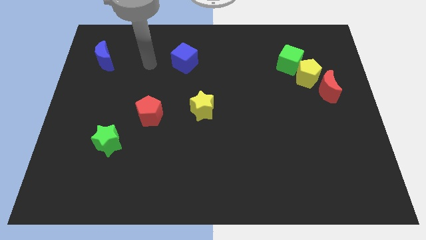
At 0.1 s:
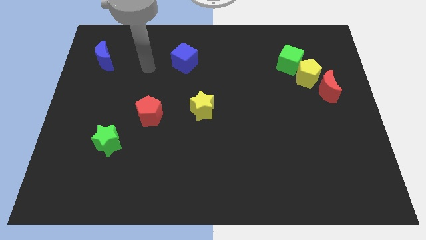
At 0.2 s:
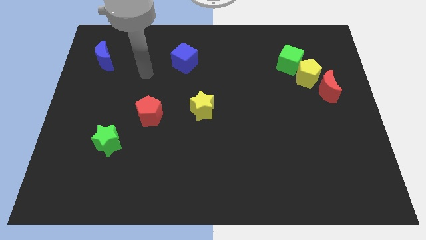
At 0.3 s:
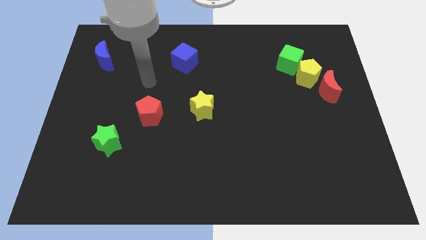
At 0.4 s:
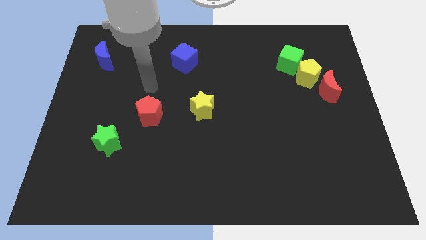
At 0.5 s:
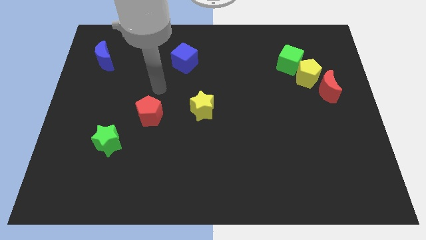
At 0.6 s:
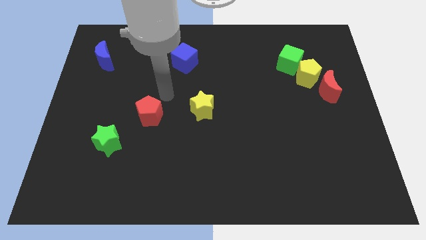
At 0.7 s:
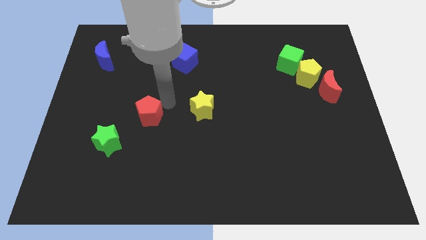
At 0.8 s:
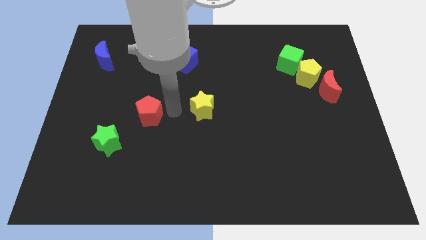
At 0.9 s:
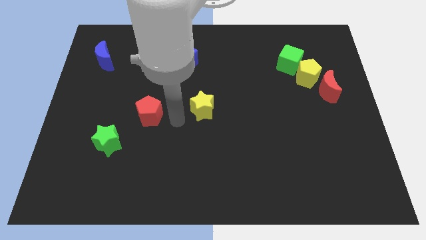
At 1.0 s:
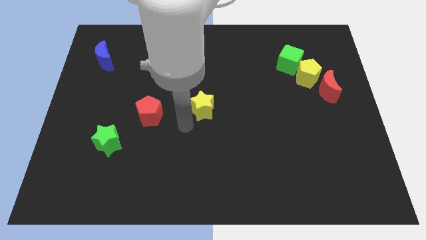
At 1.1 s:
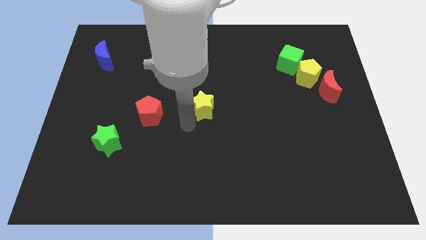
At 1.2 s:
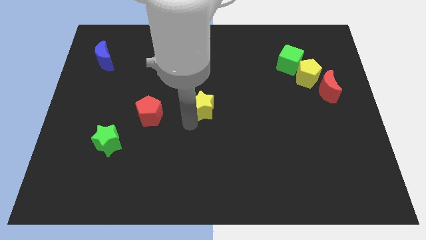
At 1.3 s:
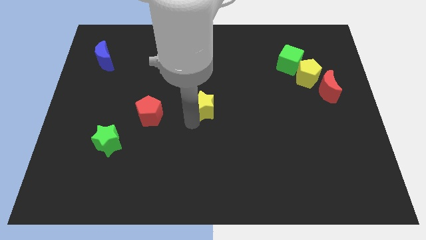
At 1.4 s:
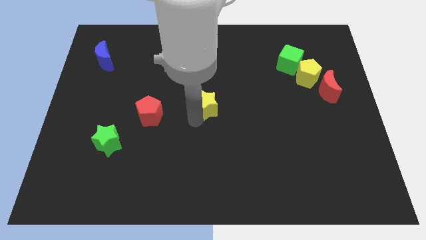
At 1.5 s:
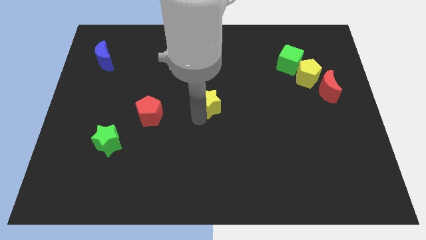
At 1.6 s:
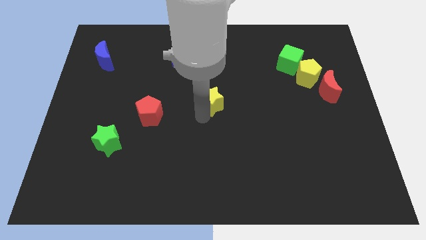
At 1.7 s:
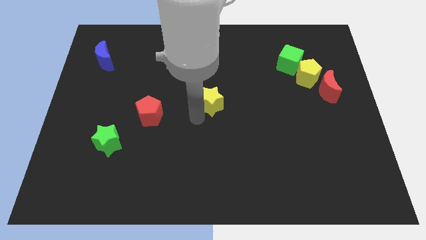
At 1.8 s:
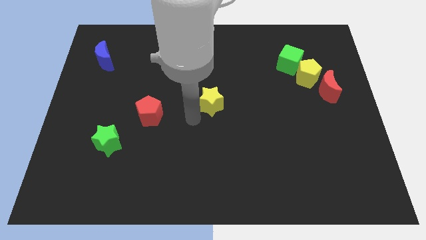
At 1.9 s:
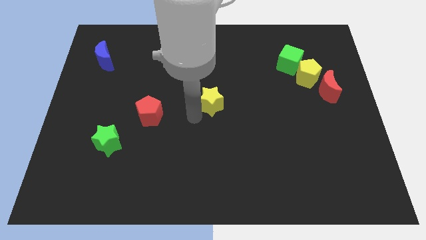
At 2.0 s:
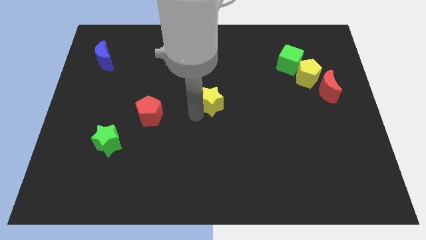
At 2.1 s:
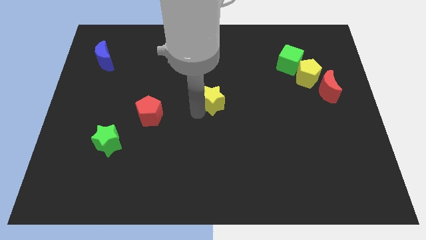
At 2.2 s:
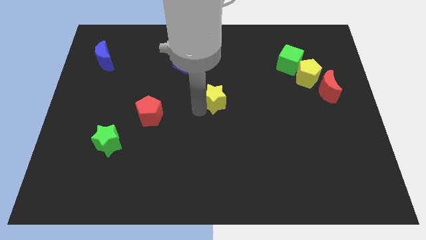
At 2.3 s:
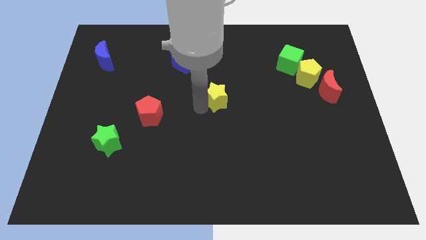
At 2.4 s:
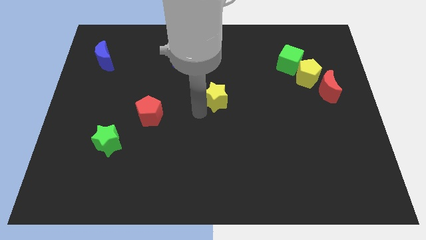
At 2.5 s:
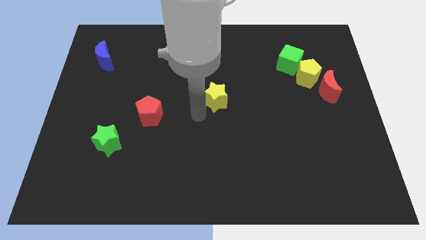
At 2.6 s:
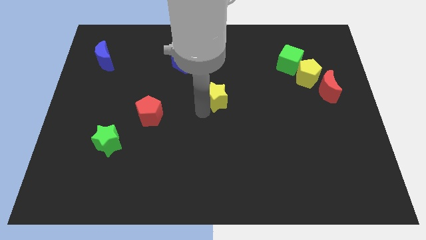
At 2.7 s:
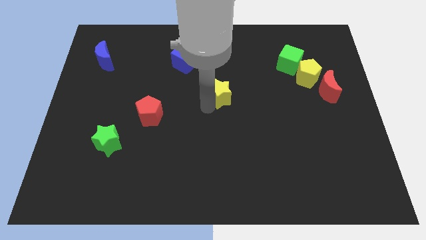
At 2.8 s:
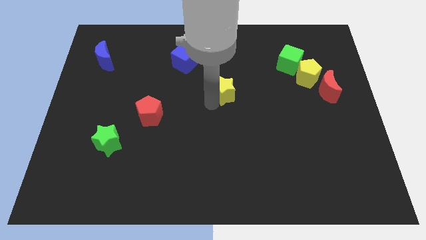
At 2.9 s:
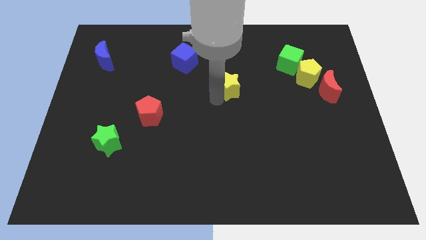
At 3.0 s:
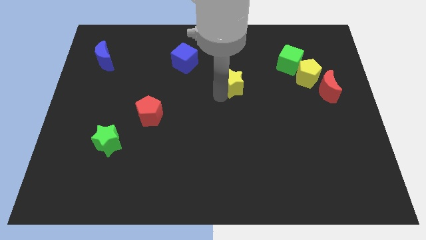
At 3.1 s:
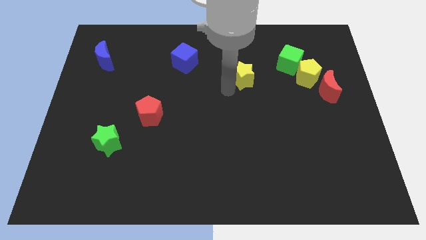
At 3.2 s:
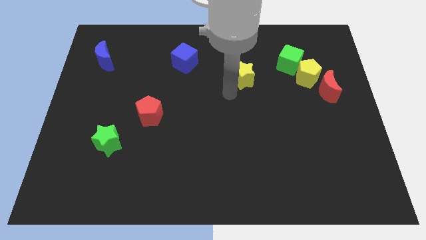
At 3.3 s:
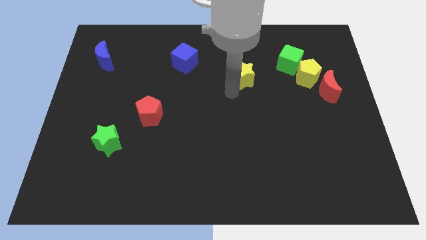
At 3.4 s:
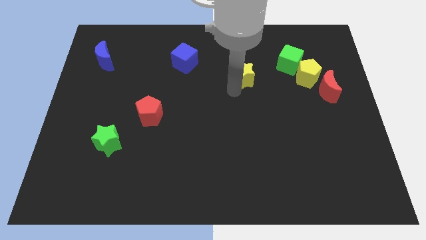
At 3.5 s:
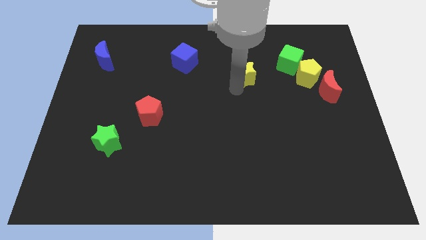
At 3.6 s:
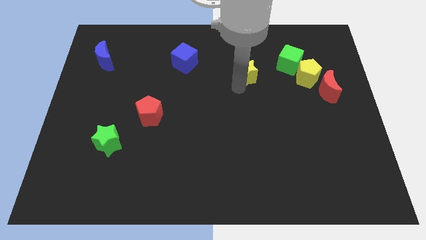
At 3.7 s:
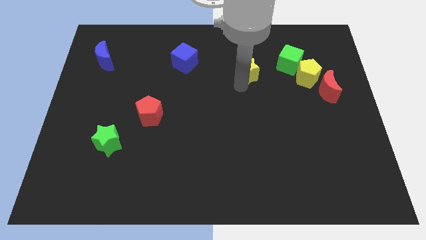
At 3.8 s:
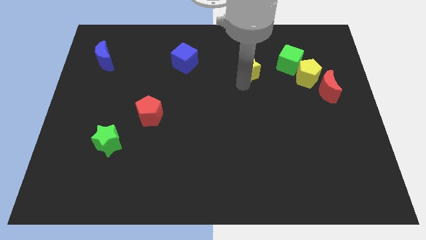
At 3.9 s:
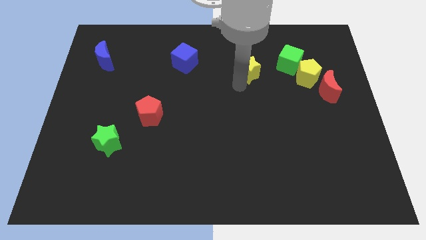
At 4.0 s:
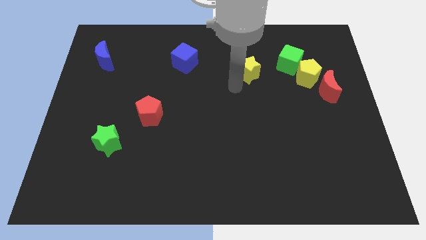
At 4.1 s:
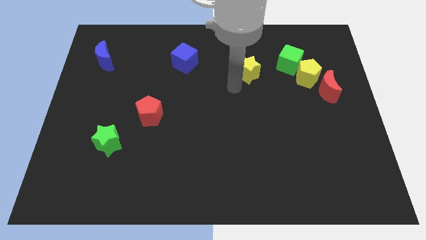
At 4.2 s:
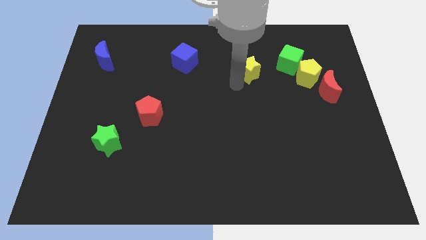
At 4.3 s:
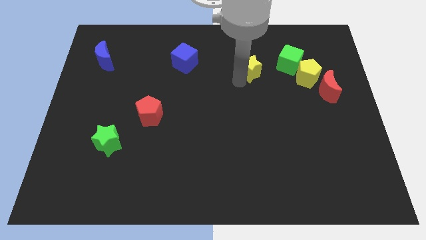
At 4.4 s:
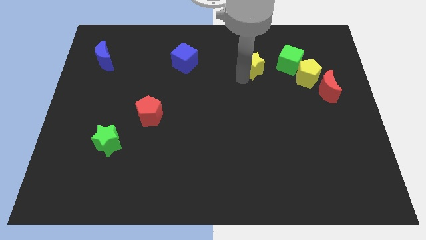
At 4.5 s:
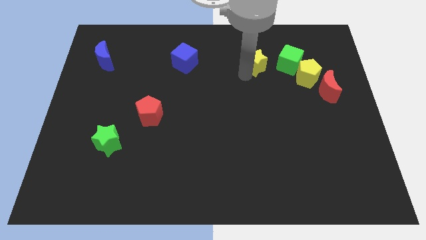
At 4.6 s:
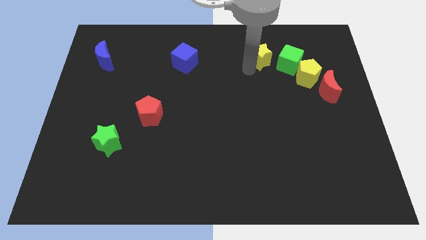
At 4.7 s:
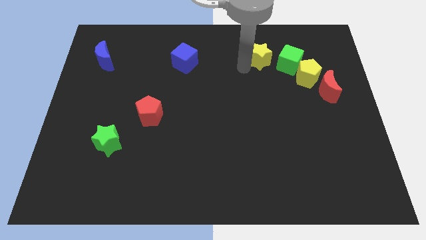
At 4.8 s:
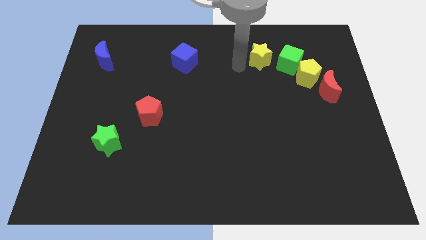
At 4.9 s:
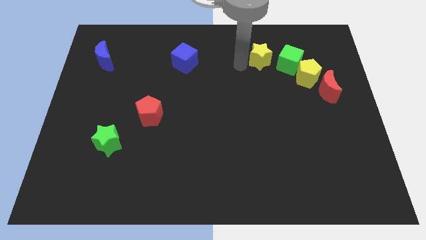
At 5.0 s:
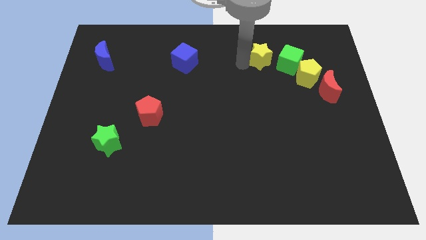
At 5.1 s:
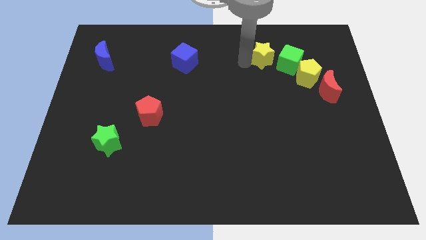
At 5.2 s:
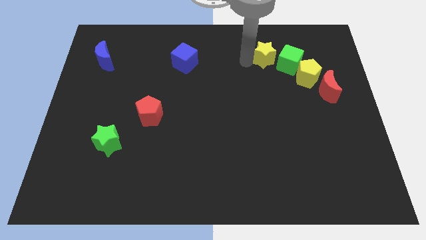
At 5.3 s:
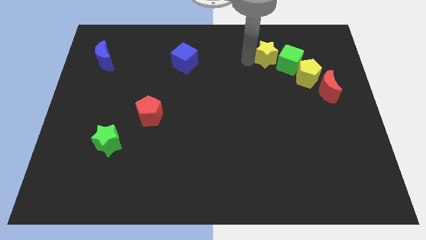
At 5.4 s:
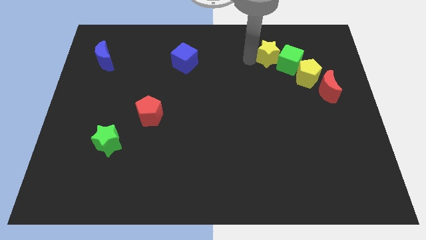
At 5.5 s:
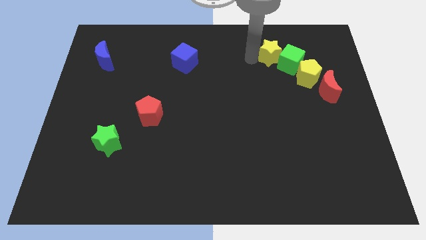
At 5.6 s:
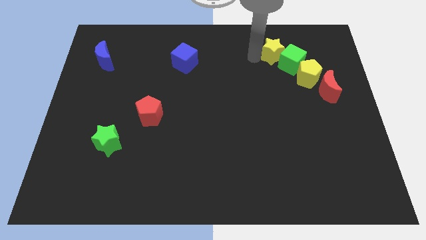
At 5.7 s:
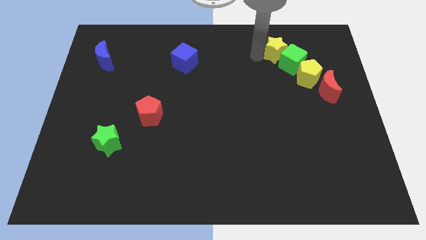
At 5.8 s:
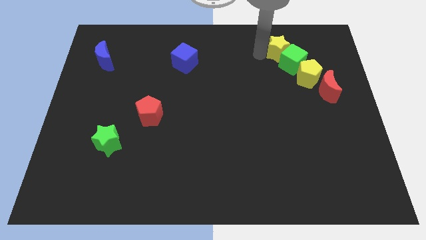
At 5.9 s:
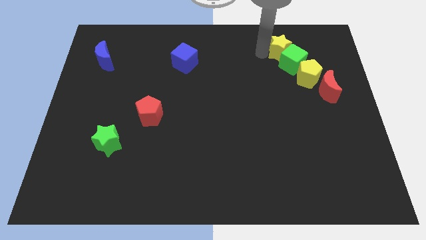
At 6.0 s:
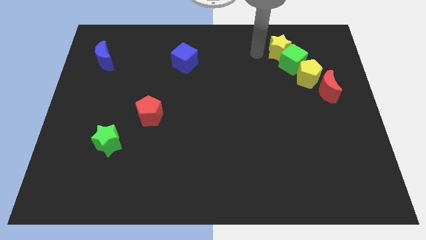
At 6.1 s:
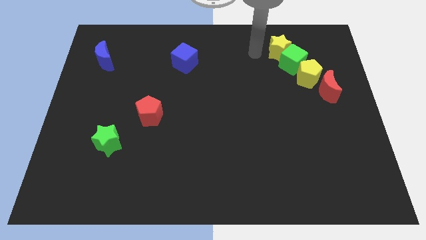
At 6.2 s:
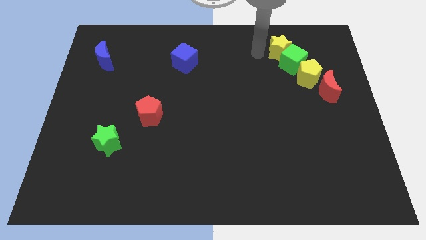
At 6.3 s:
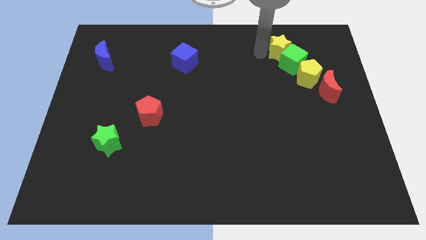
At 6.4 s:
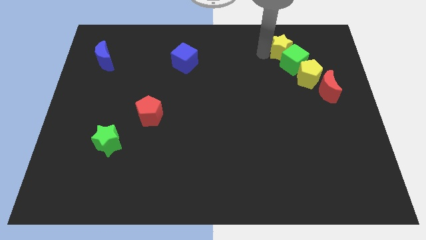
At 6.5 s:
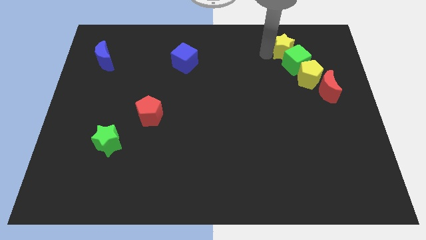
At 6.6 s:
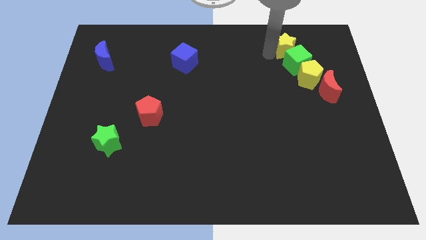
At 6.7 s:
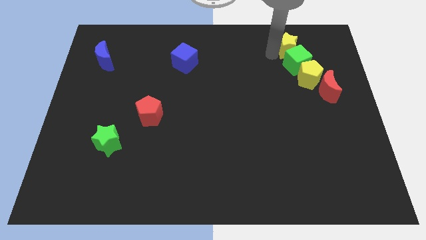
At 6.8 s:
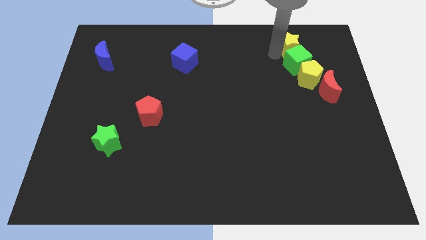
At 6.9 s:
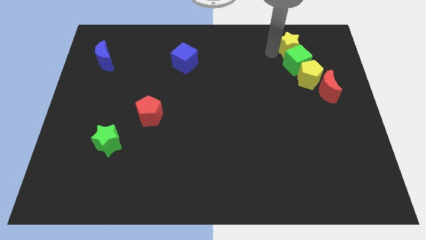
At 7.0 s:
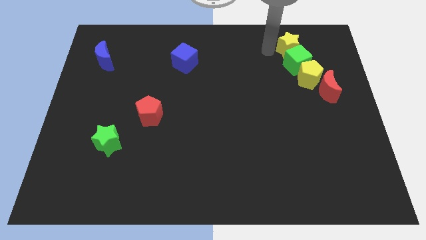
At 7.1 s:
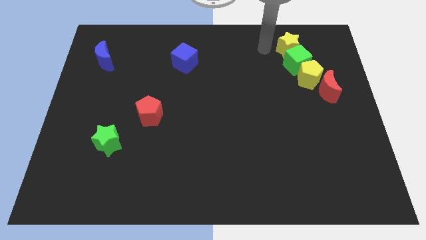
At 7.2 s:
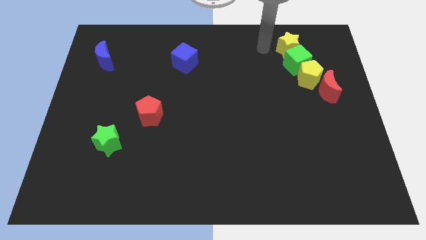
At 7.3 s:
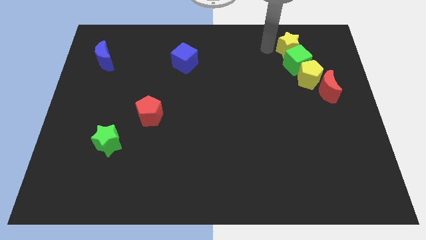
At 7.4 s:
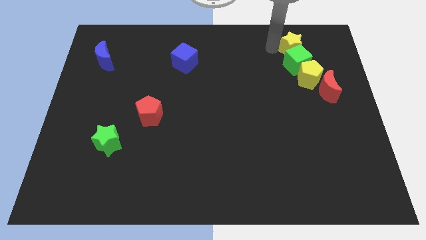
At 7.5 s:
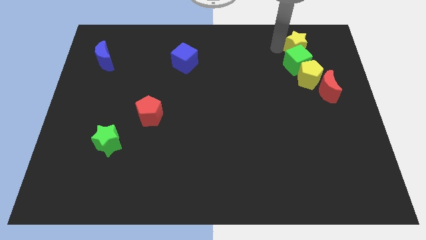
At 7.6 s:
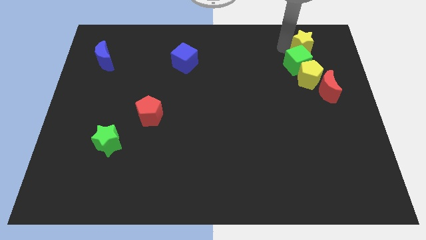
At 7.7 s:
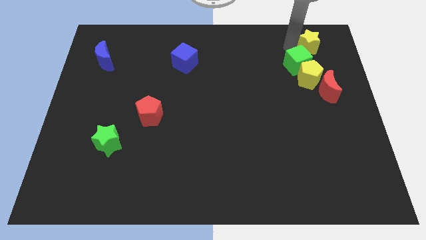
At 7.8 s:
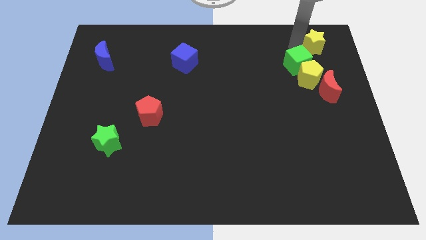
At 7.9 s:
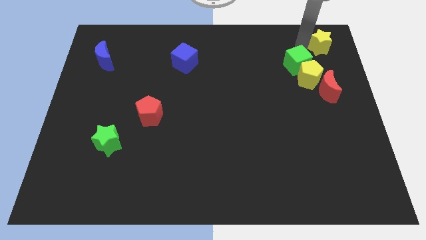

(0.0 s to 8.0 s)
move the yellow star to the top right
